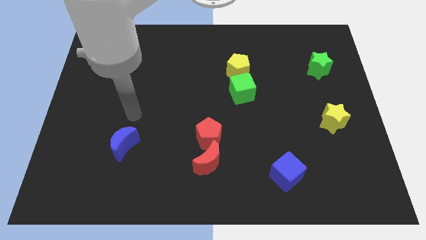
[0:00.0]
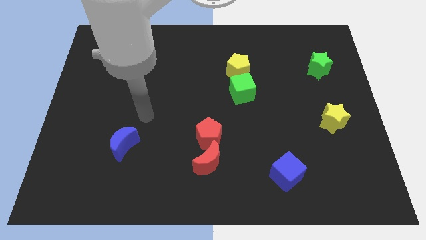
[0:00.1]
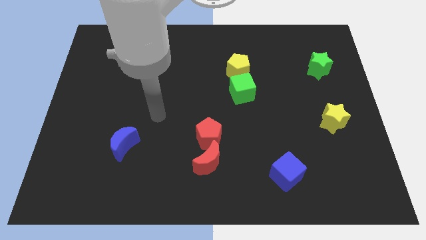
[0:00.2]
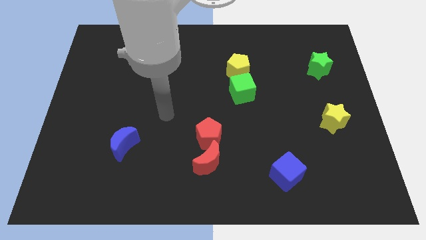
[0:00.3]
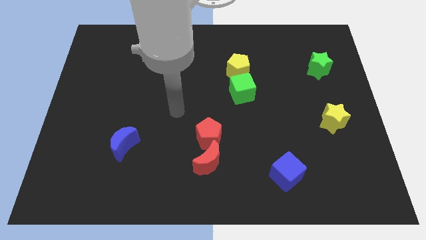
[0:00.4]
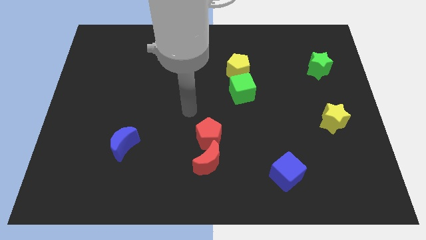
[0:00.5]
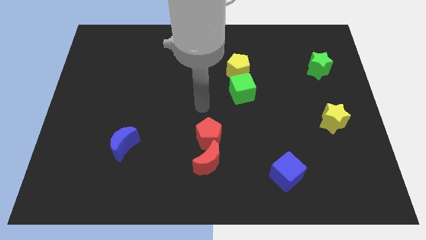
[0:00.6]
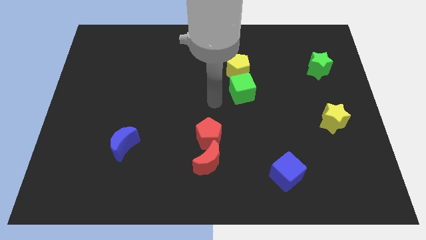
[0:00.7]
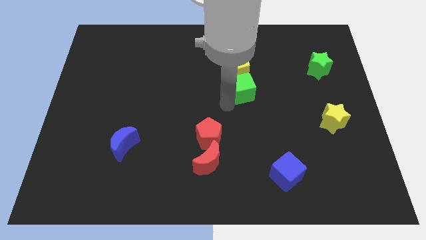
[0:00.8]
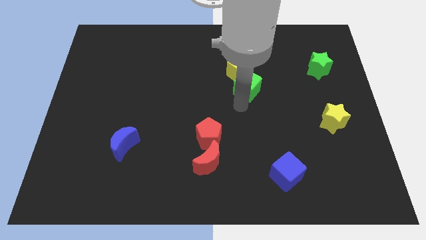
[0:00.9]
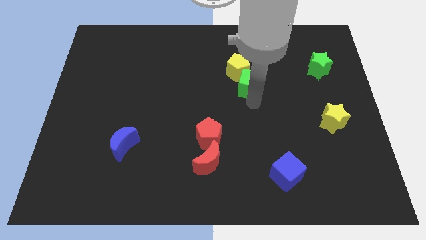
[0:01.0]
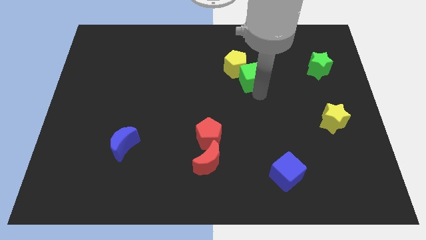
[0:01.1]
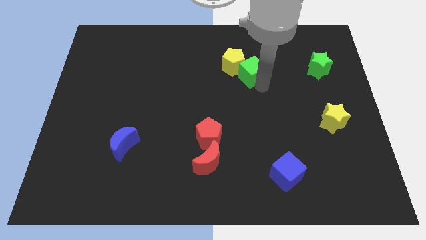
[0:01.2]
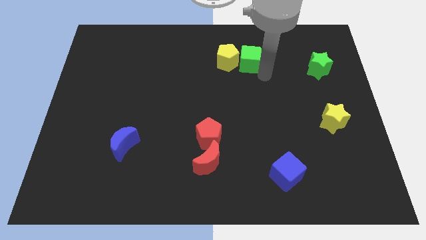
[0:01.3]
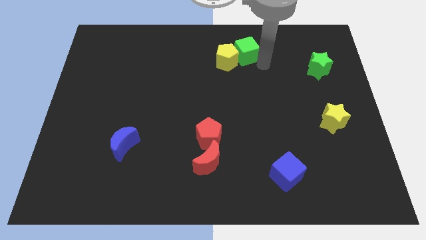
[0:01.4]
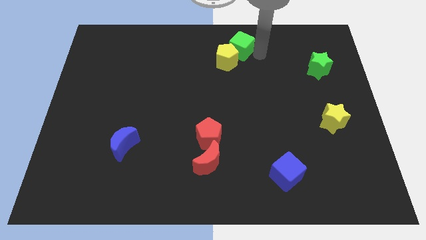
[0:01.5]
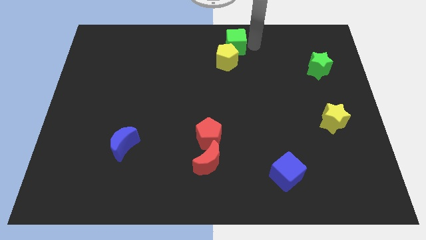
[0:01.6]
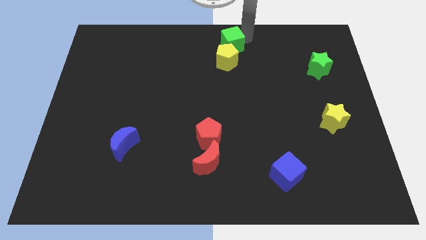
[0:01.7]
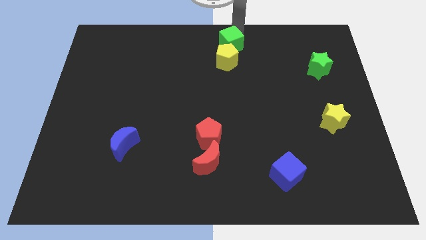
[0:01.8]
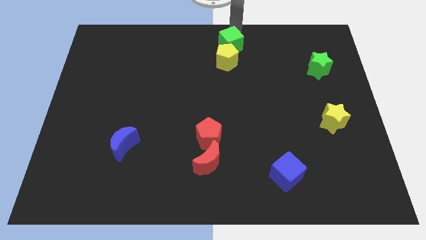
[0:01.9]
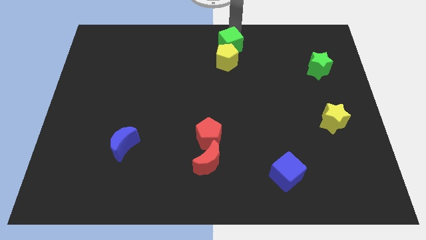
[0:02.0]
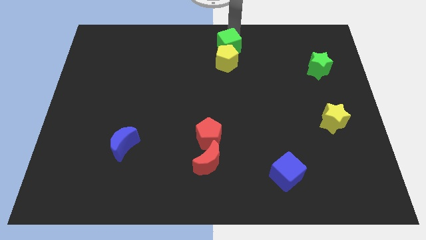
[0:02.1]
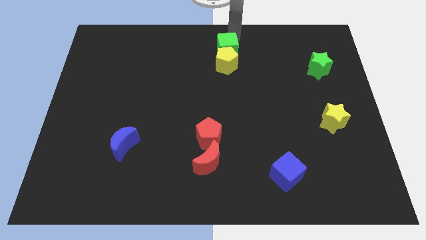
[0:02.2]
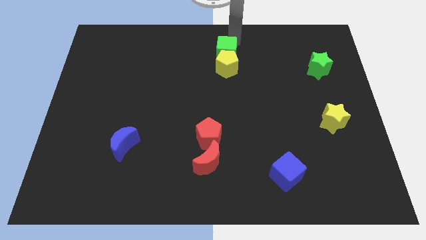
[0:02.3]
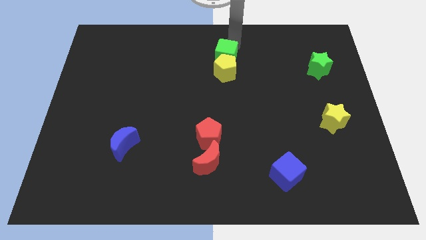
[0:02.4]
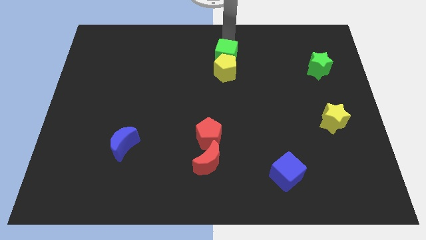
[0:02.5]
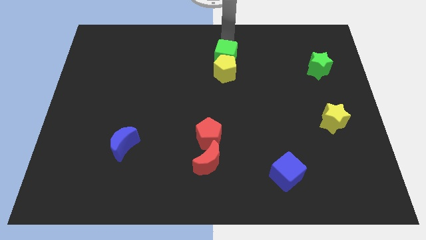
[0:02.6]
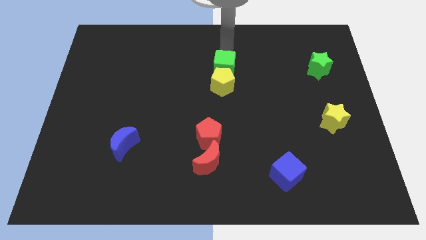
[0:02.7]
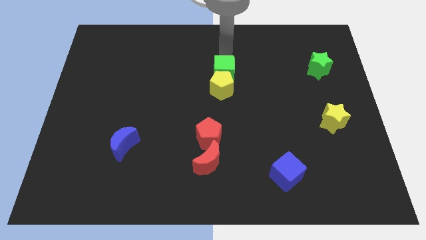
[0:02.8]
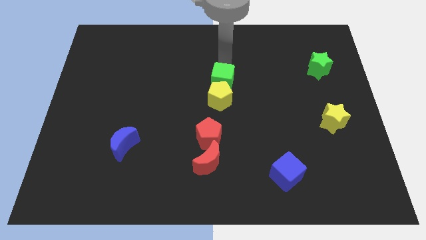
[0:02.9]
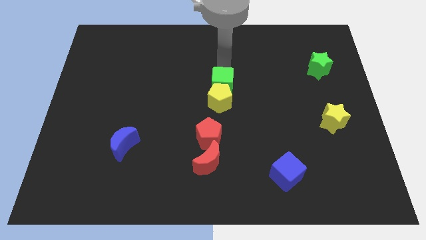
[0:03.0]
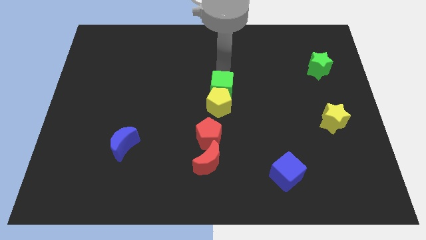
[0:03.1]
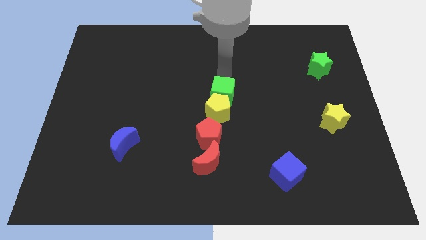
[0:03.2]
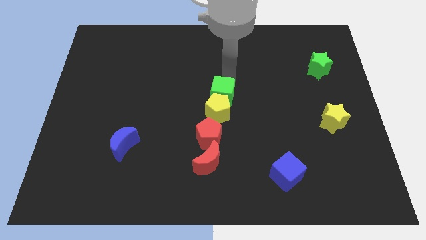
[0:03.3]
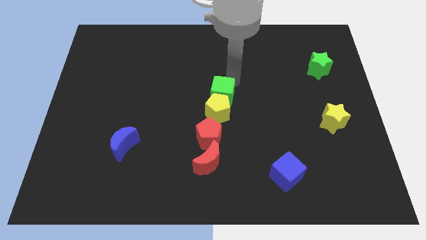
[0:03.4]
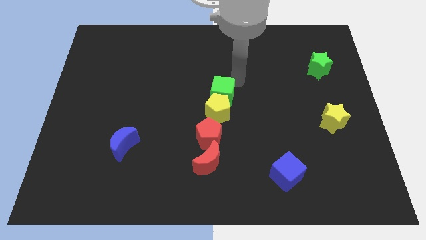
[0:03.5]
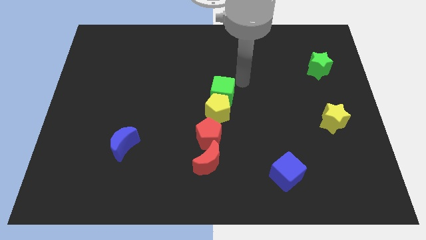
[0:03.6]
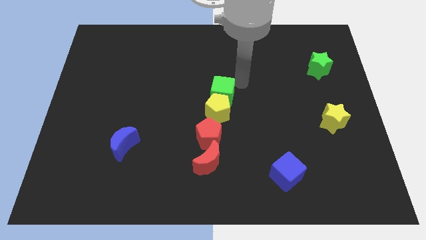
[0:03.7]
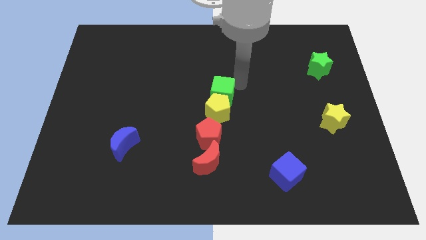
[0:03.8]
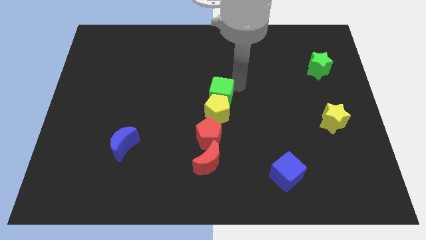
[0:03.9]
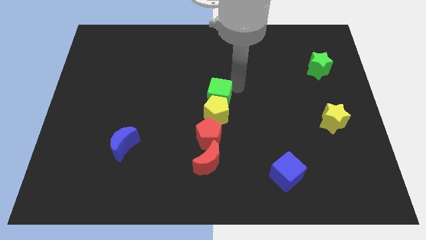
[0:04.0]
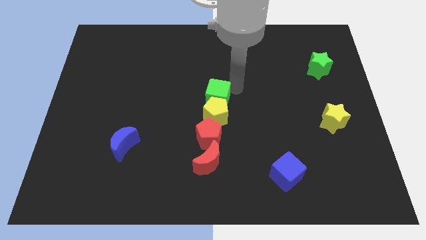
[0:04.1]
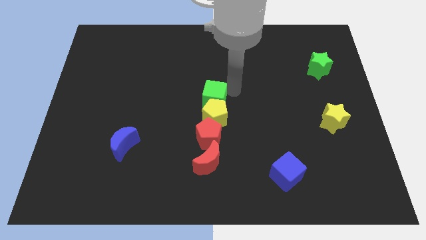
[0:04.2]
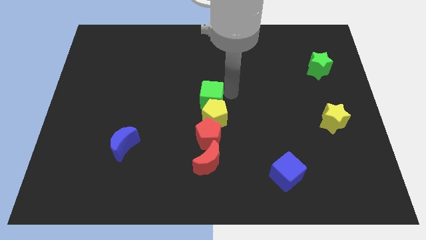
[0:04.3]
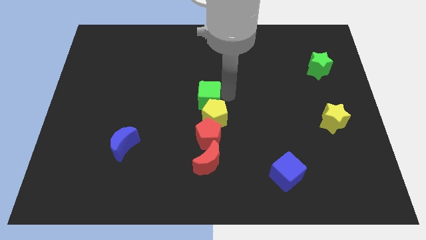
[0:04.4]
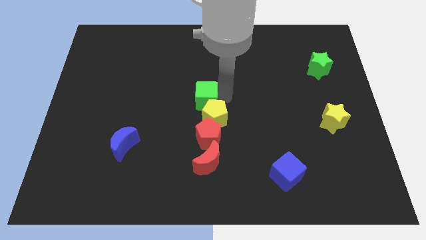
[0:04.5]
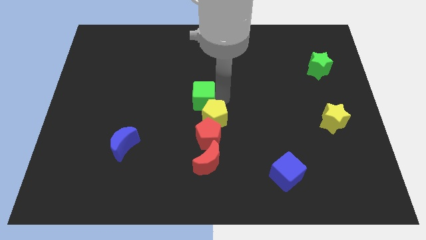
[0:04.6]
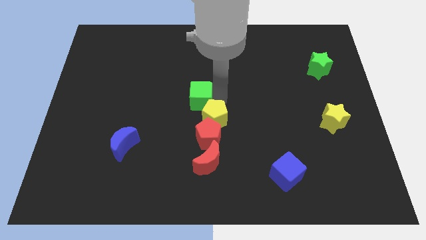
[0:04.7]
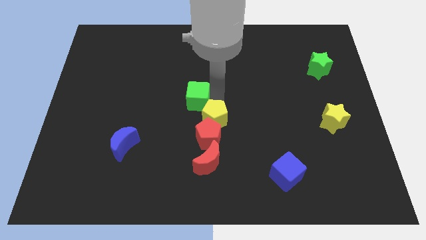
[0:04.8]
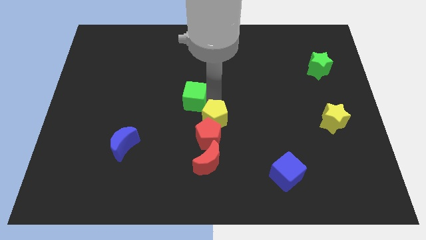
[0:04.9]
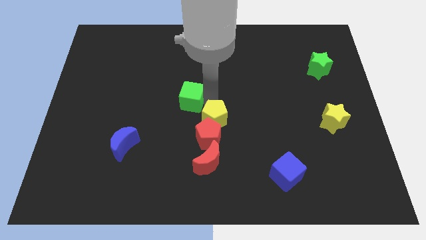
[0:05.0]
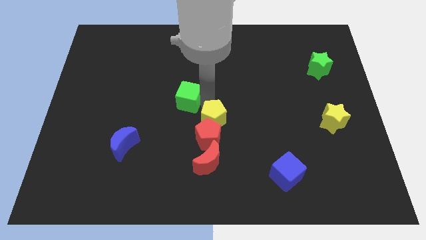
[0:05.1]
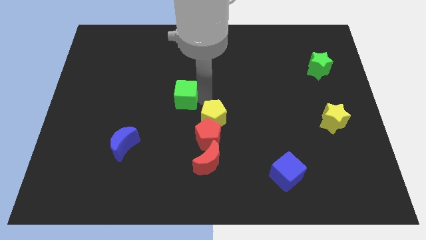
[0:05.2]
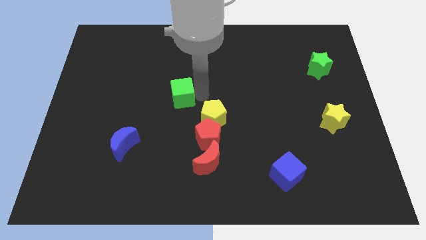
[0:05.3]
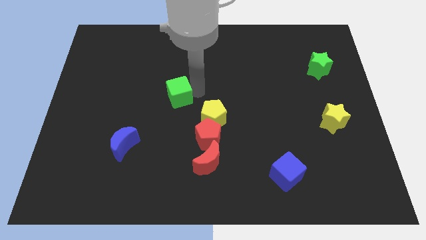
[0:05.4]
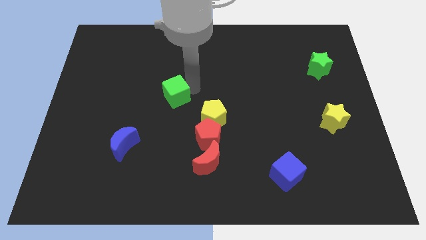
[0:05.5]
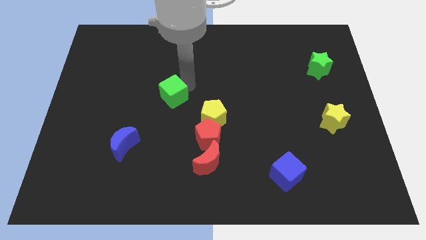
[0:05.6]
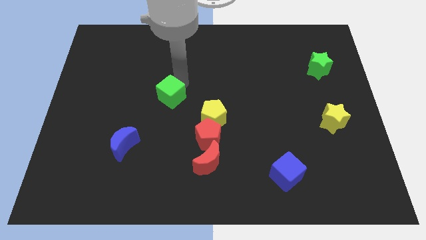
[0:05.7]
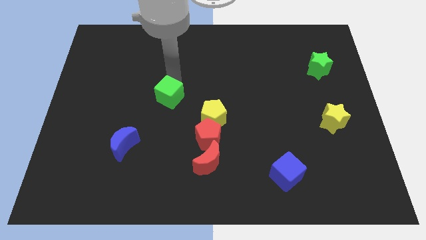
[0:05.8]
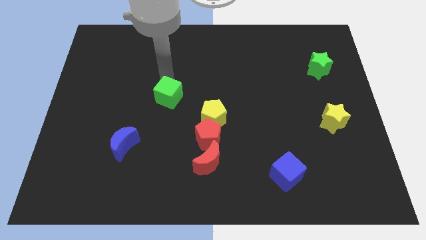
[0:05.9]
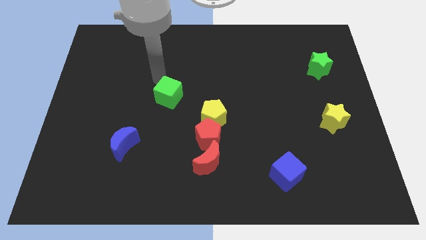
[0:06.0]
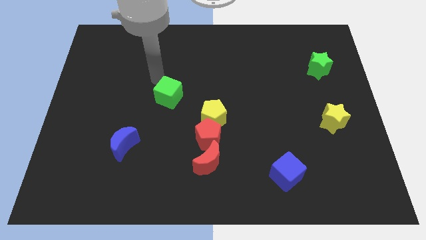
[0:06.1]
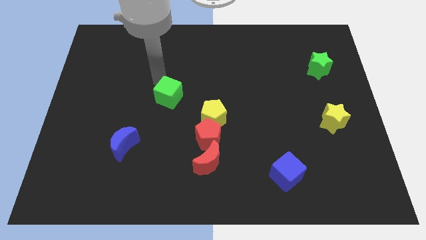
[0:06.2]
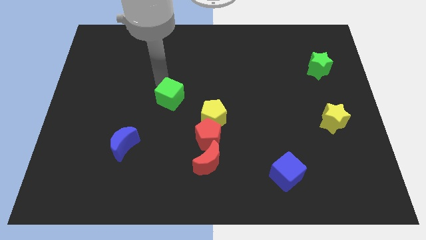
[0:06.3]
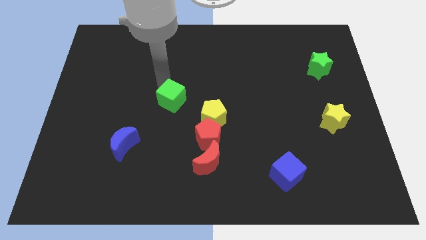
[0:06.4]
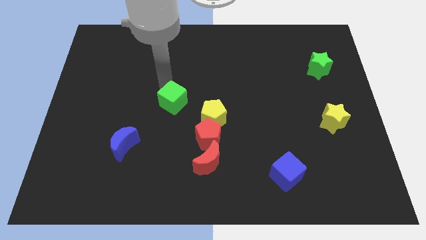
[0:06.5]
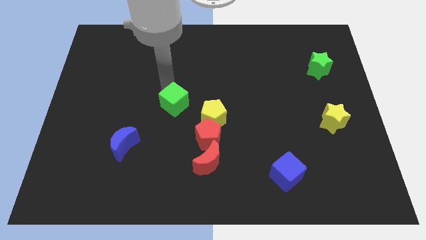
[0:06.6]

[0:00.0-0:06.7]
slide the green cube to the top left side of the red pentagon

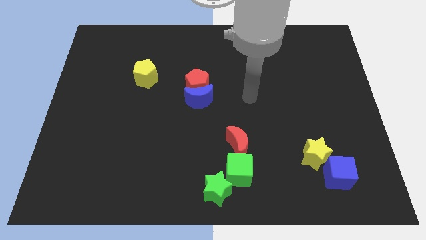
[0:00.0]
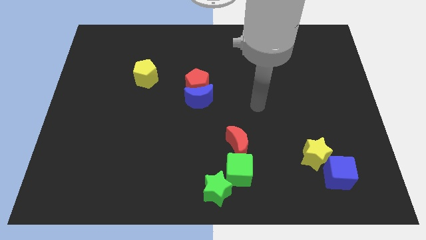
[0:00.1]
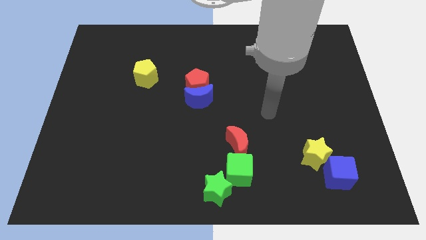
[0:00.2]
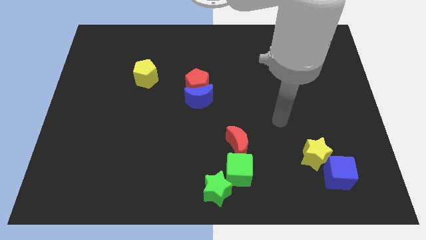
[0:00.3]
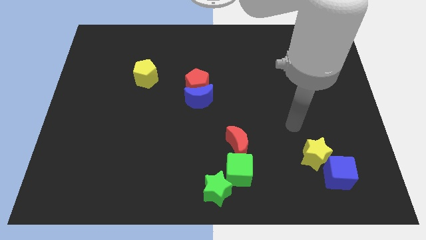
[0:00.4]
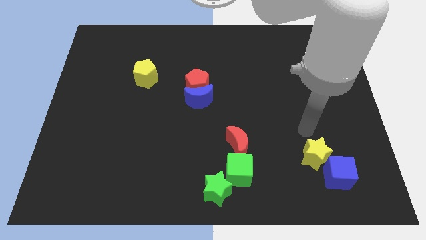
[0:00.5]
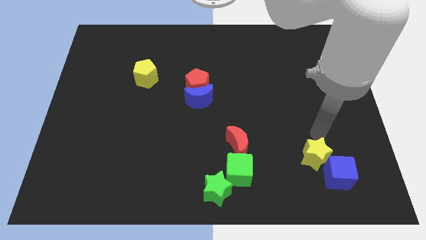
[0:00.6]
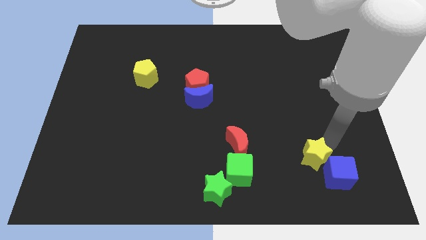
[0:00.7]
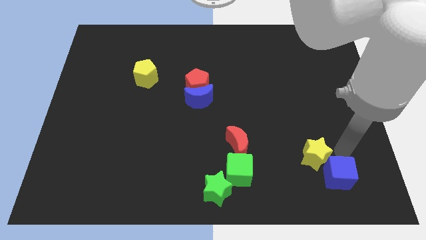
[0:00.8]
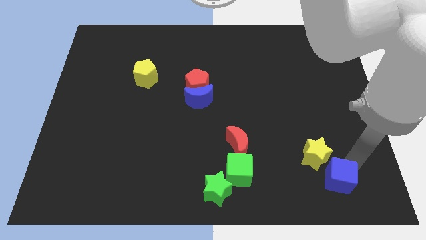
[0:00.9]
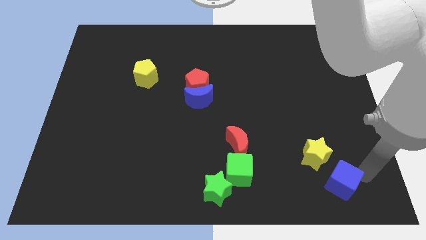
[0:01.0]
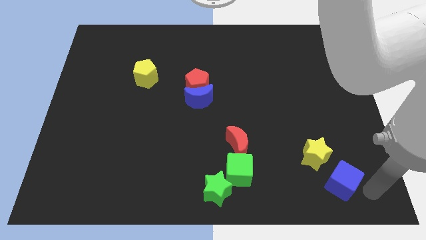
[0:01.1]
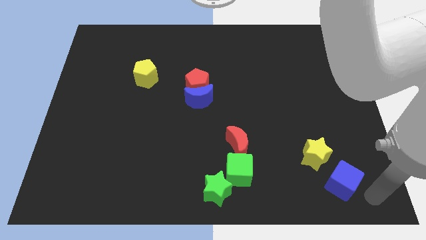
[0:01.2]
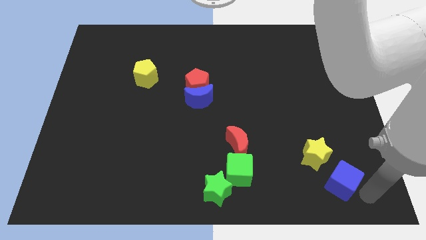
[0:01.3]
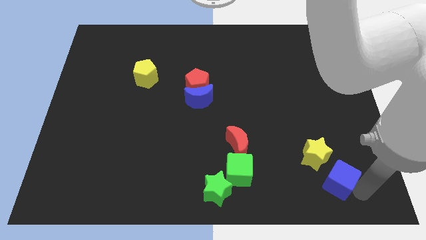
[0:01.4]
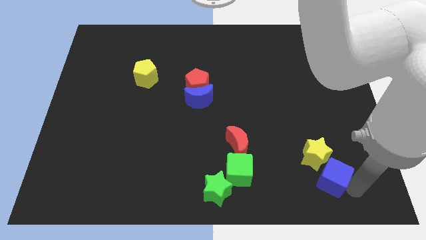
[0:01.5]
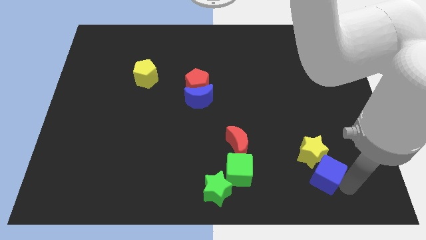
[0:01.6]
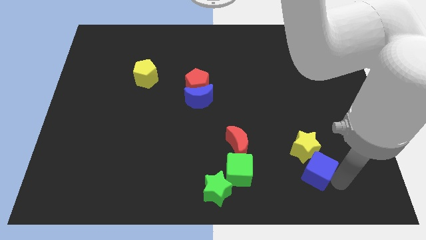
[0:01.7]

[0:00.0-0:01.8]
push the blue cube to the right of the green cube
